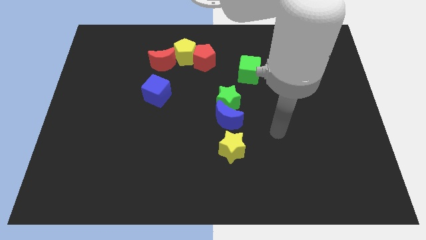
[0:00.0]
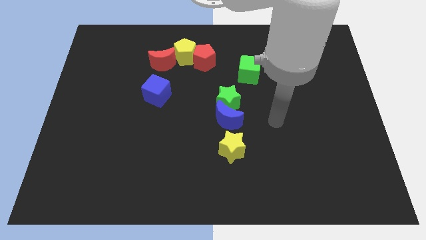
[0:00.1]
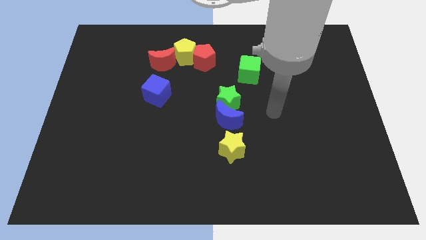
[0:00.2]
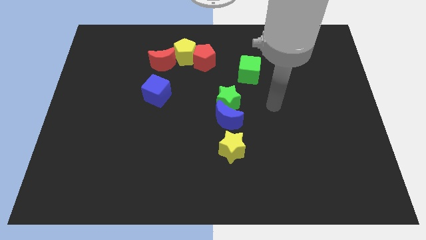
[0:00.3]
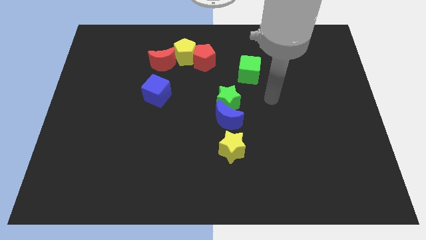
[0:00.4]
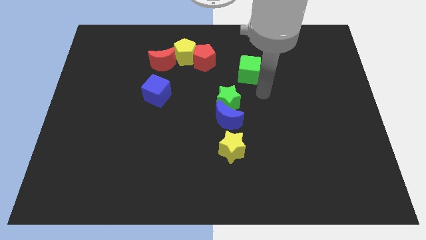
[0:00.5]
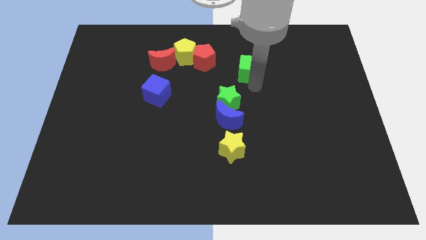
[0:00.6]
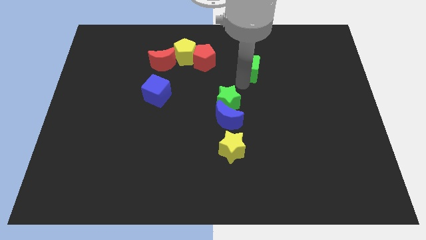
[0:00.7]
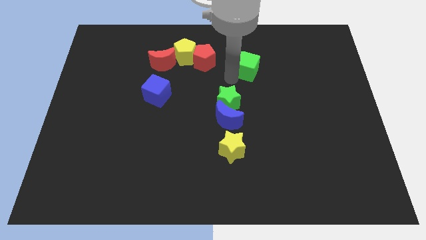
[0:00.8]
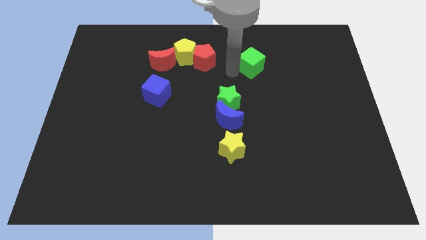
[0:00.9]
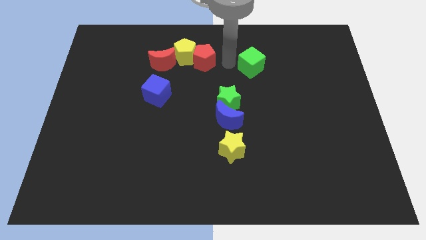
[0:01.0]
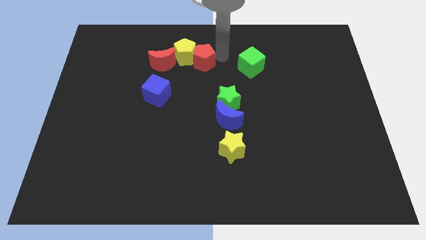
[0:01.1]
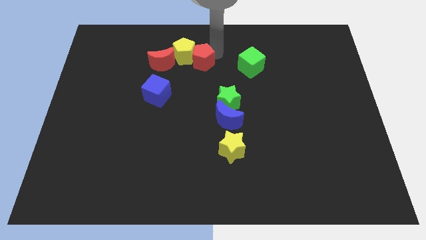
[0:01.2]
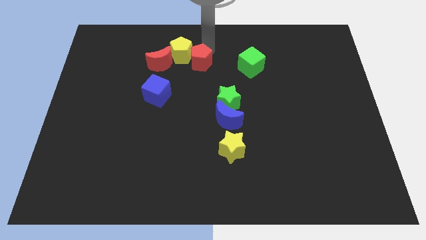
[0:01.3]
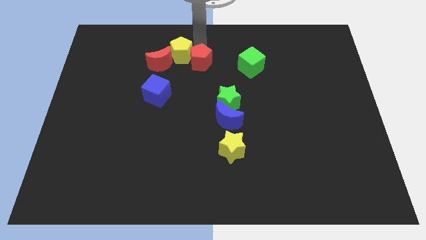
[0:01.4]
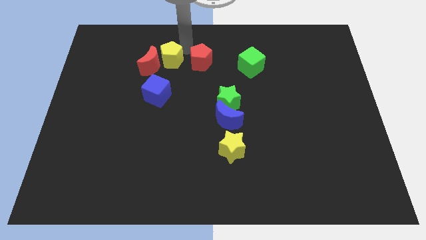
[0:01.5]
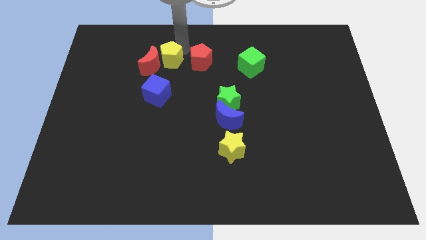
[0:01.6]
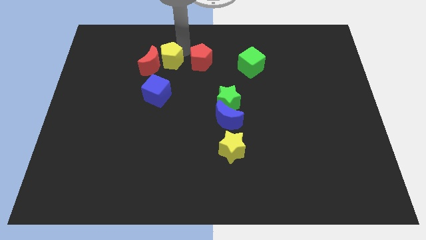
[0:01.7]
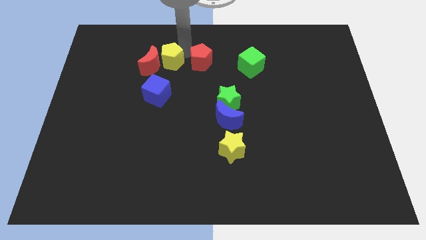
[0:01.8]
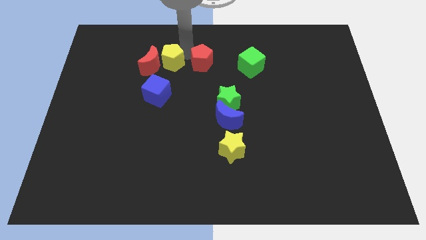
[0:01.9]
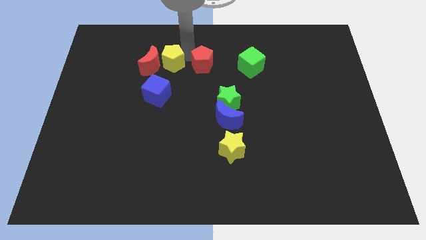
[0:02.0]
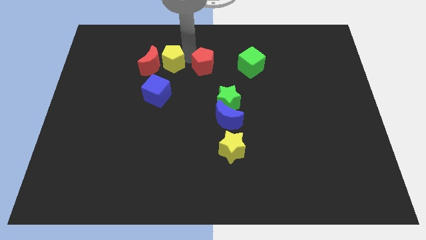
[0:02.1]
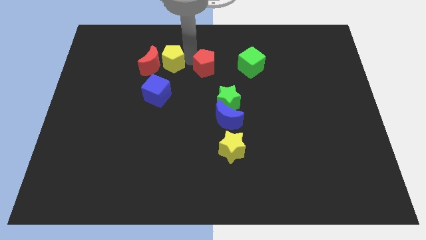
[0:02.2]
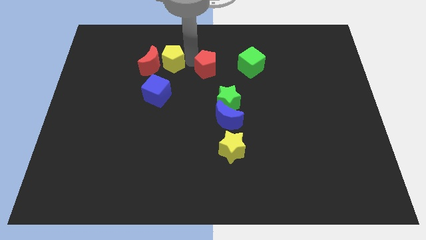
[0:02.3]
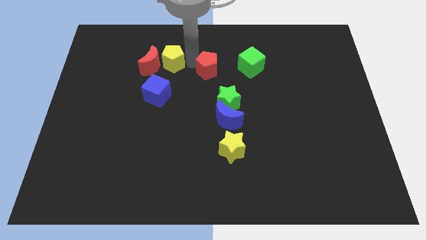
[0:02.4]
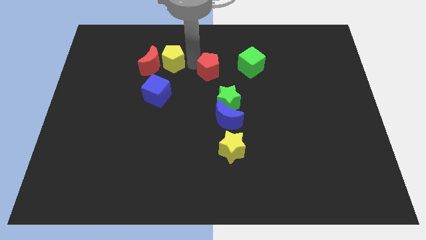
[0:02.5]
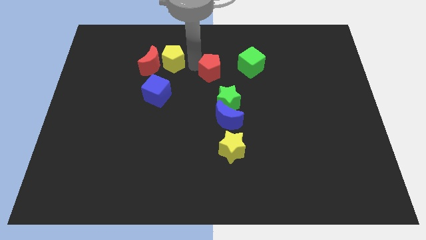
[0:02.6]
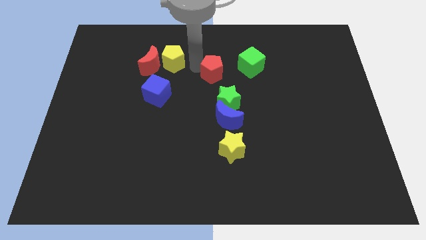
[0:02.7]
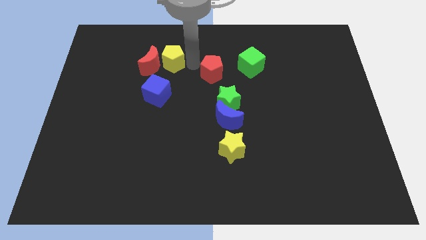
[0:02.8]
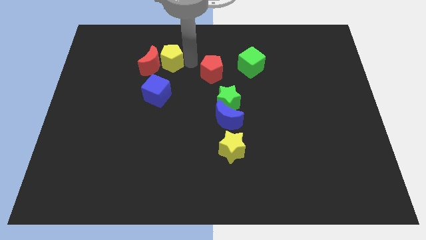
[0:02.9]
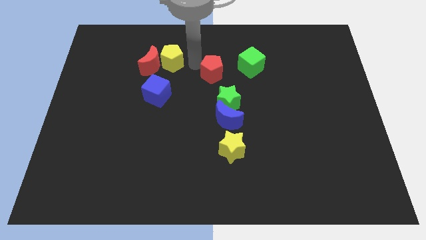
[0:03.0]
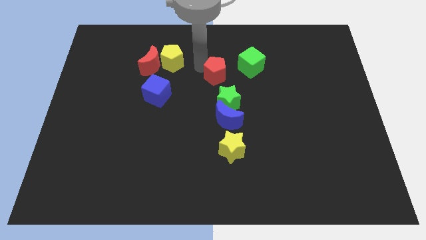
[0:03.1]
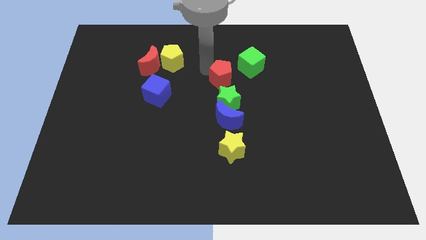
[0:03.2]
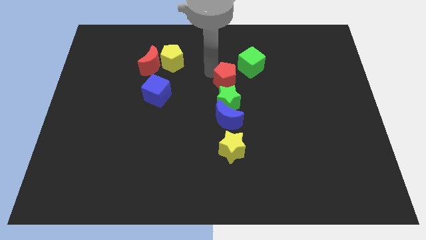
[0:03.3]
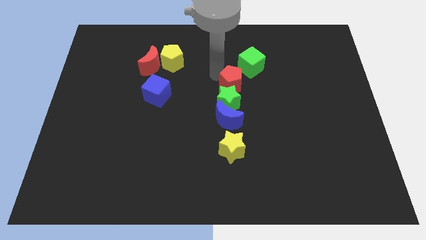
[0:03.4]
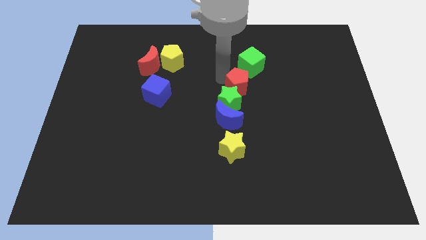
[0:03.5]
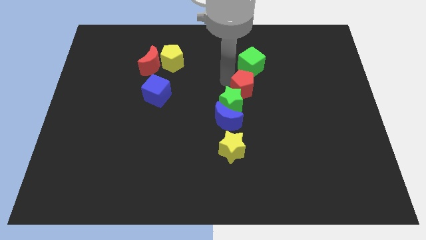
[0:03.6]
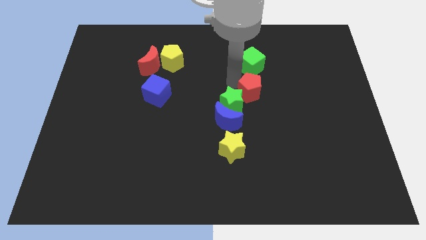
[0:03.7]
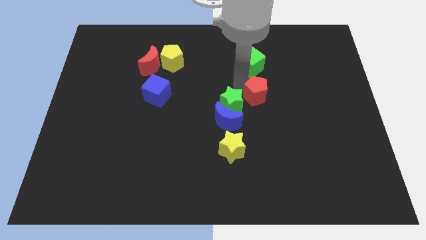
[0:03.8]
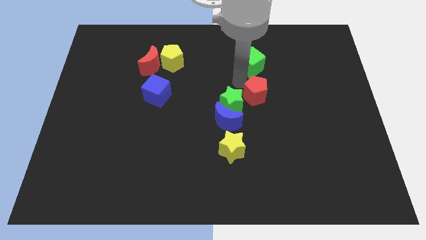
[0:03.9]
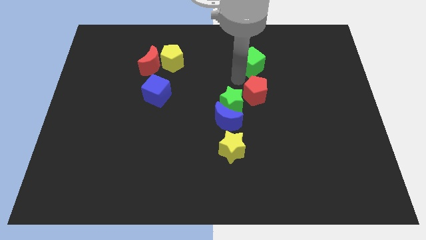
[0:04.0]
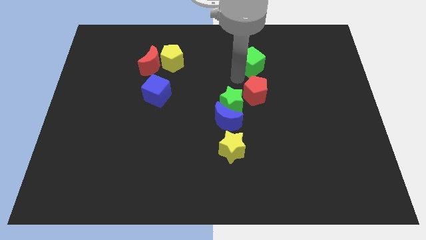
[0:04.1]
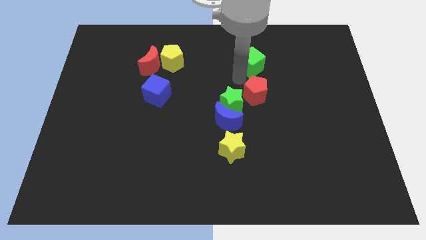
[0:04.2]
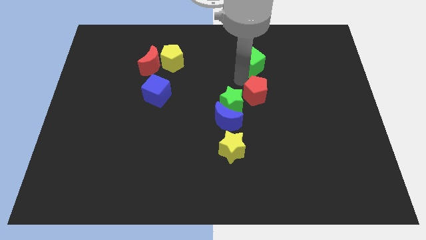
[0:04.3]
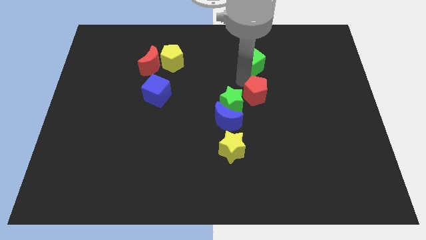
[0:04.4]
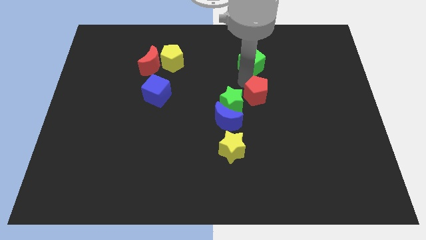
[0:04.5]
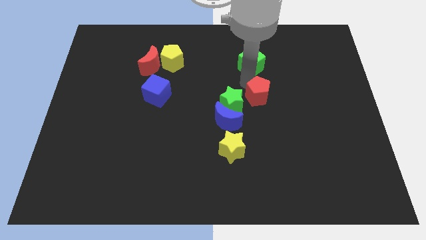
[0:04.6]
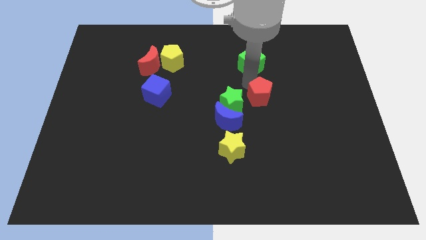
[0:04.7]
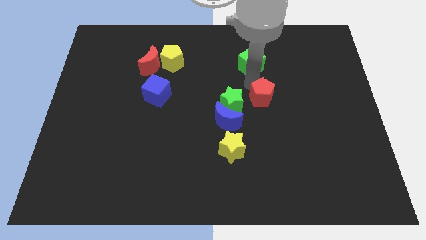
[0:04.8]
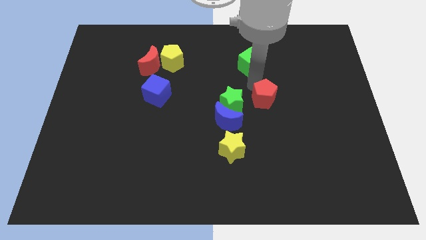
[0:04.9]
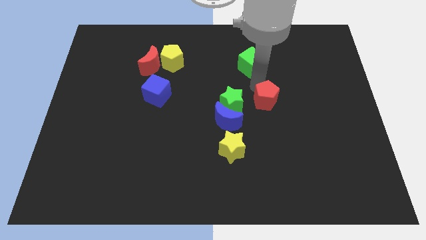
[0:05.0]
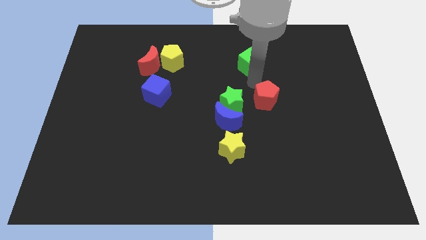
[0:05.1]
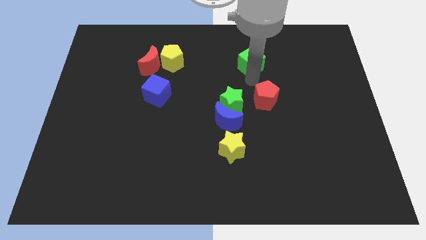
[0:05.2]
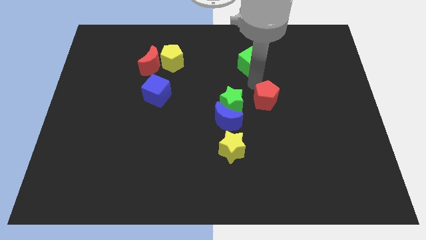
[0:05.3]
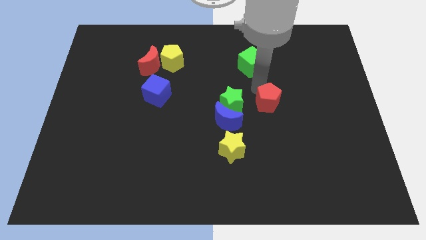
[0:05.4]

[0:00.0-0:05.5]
push the red pentagon down and then to the right

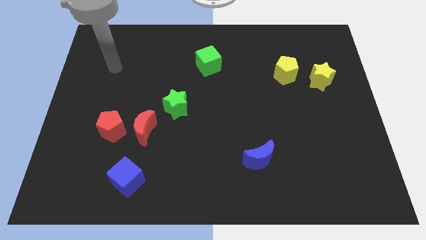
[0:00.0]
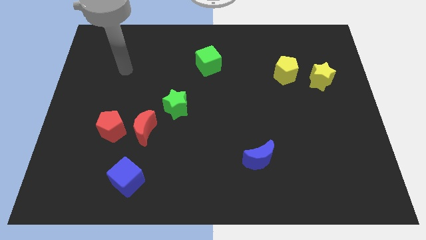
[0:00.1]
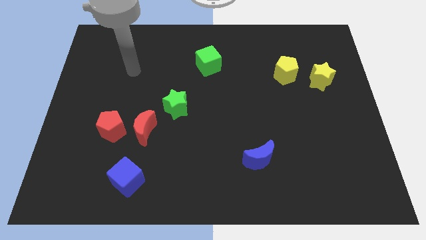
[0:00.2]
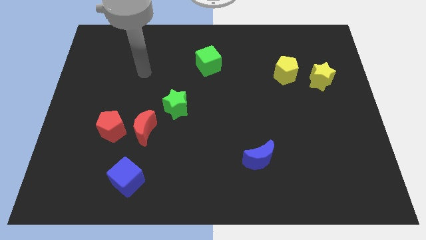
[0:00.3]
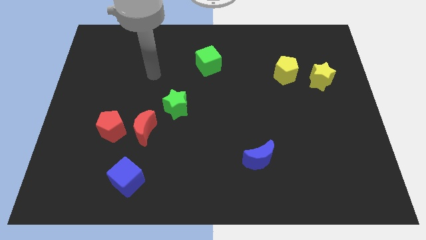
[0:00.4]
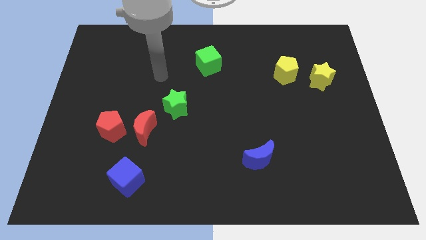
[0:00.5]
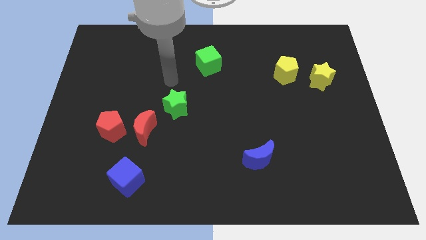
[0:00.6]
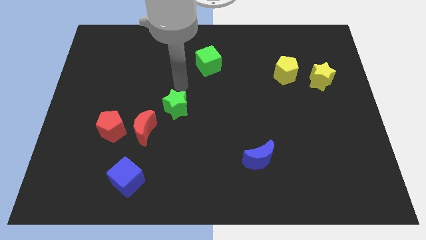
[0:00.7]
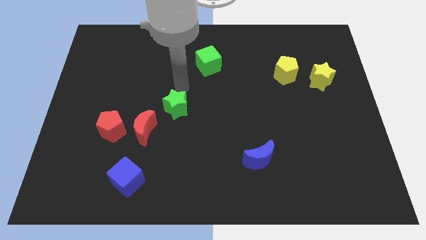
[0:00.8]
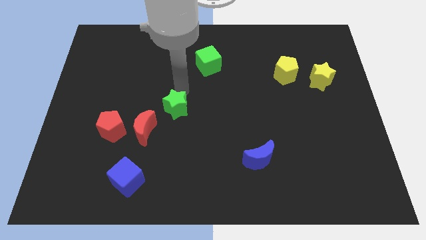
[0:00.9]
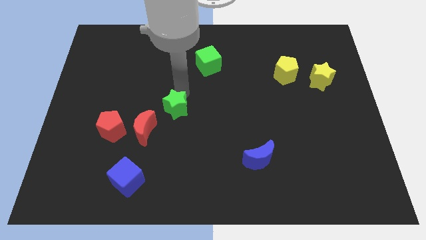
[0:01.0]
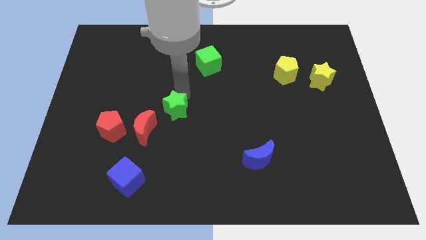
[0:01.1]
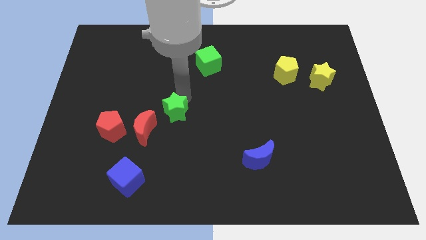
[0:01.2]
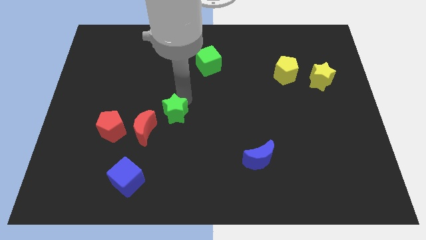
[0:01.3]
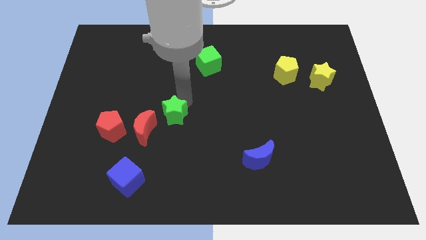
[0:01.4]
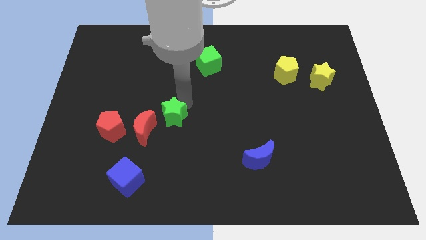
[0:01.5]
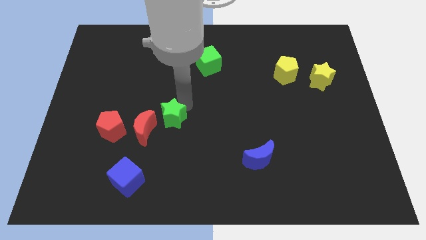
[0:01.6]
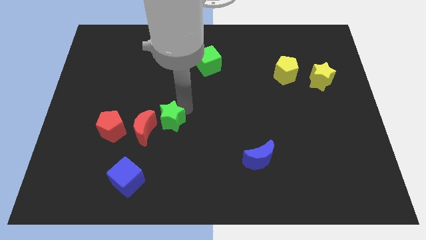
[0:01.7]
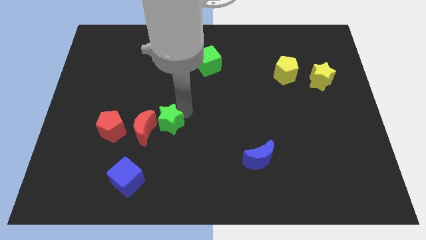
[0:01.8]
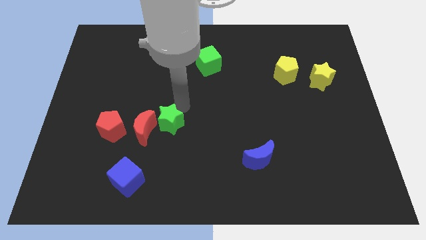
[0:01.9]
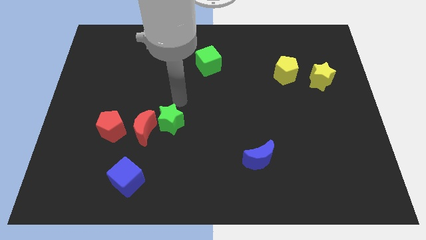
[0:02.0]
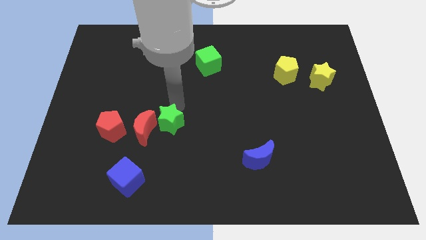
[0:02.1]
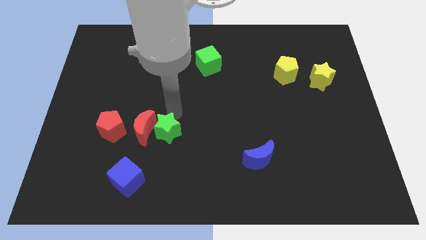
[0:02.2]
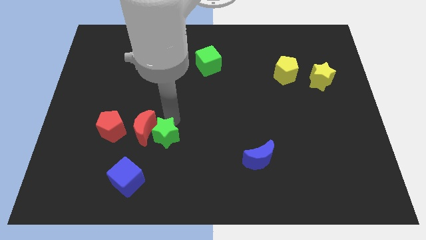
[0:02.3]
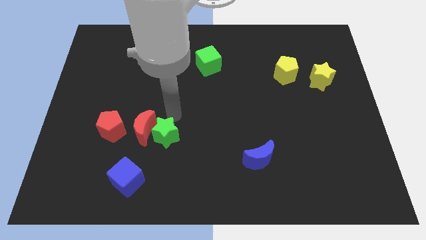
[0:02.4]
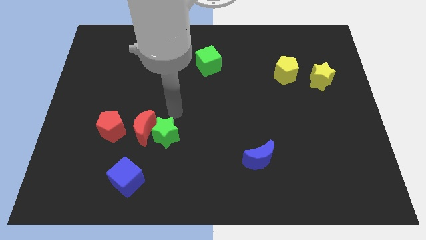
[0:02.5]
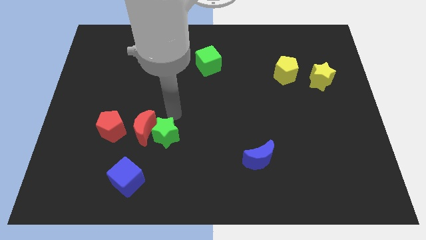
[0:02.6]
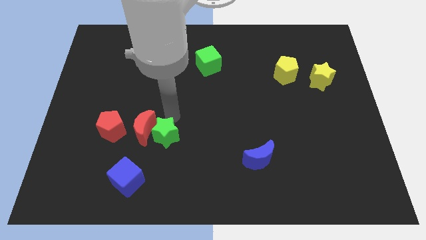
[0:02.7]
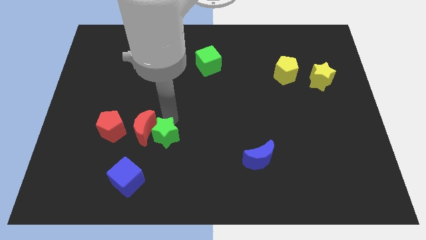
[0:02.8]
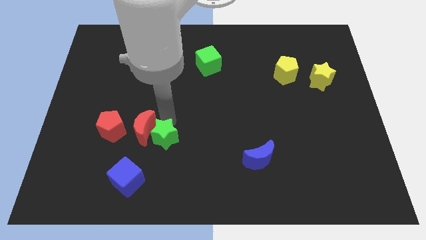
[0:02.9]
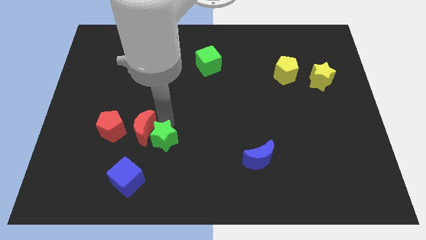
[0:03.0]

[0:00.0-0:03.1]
push the green star a bit down and left diagonally
